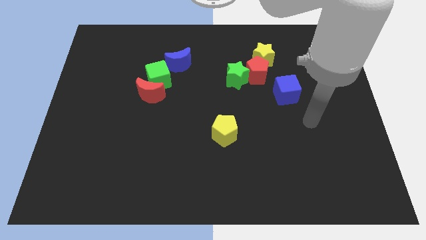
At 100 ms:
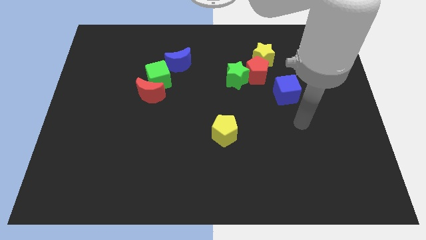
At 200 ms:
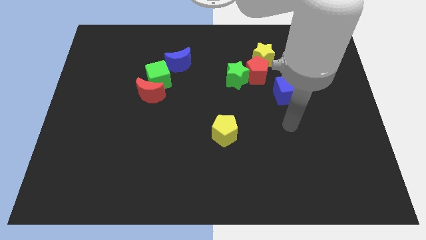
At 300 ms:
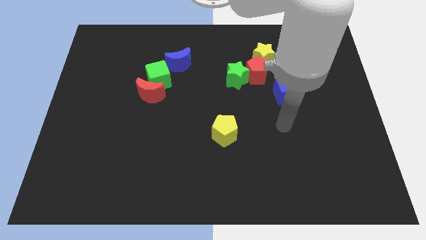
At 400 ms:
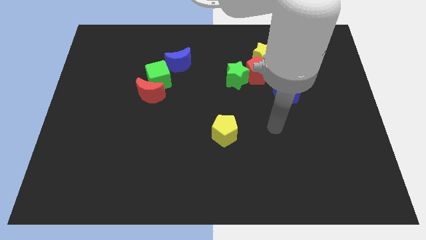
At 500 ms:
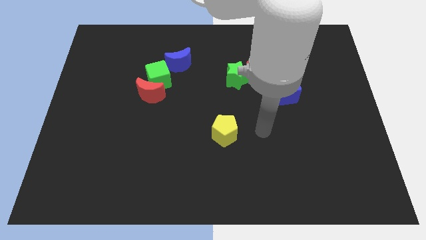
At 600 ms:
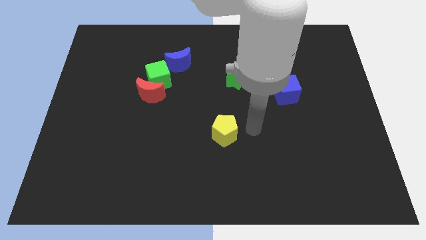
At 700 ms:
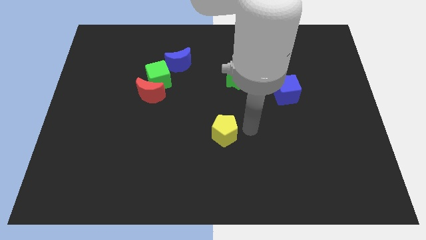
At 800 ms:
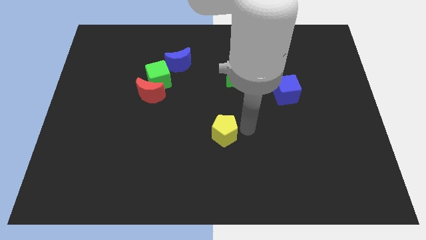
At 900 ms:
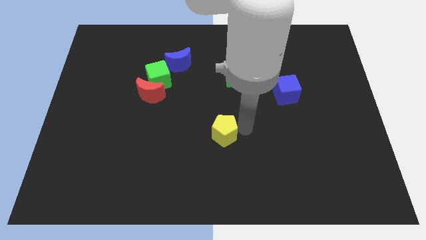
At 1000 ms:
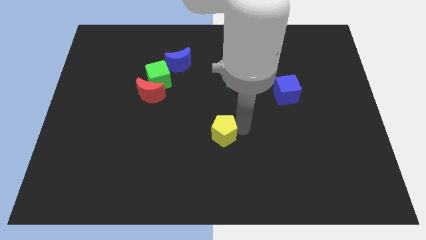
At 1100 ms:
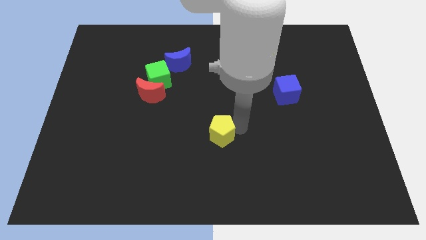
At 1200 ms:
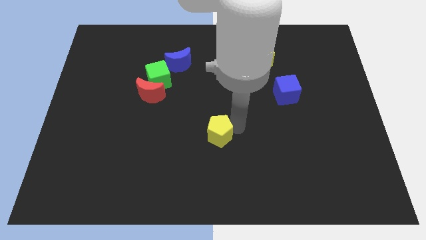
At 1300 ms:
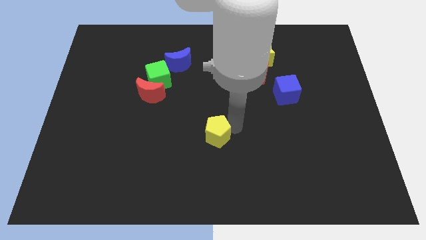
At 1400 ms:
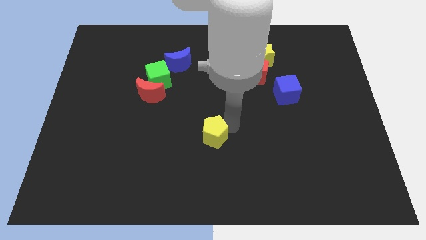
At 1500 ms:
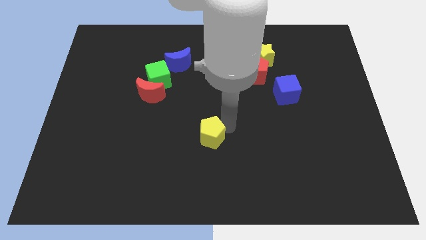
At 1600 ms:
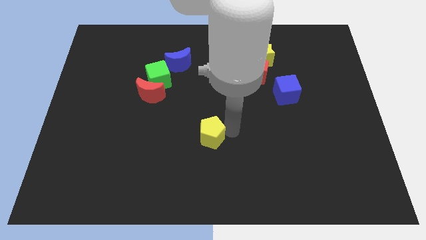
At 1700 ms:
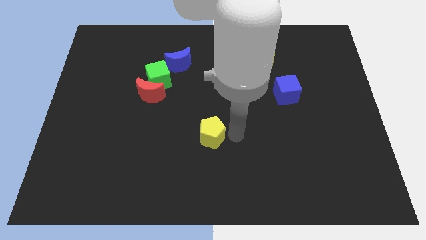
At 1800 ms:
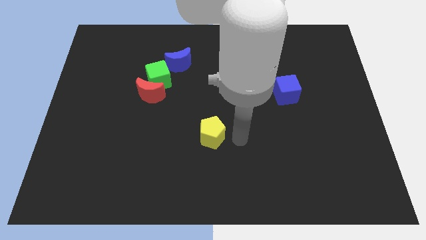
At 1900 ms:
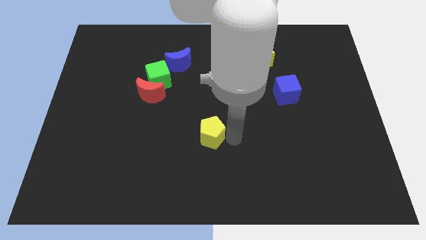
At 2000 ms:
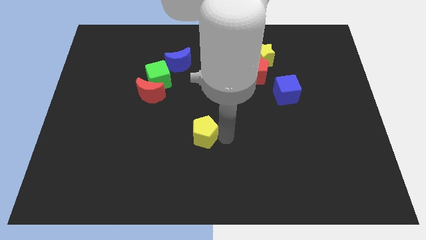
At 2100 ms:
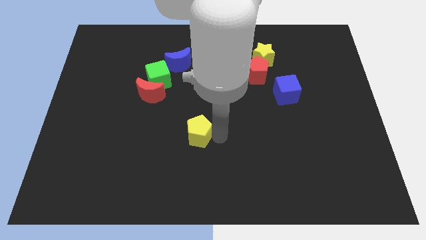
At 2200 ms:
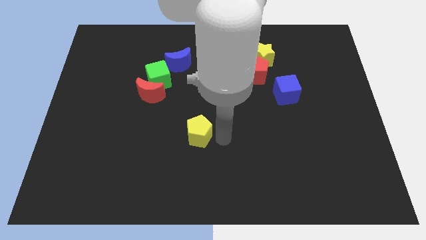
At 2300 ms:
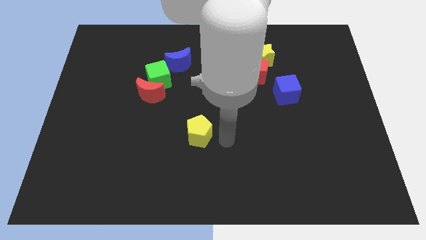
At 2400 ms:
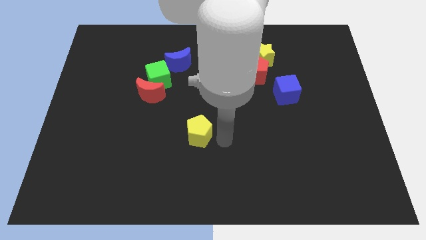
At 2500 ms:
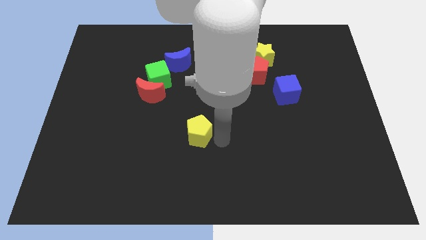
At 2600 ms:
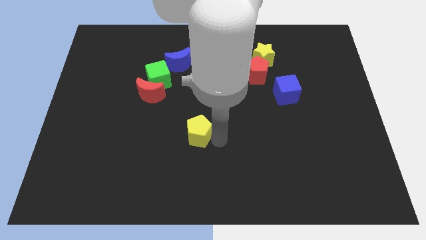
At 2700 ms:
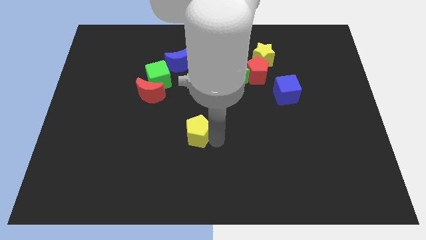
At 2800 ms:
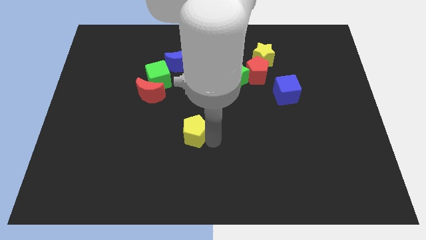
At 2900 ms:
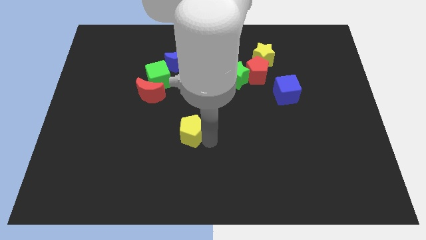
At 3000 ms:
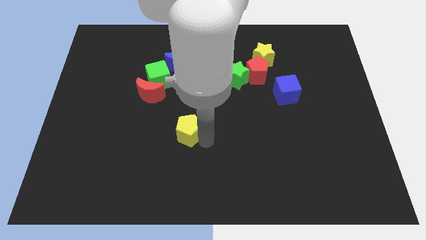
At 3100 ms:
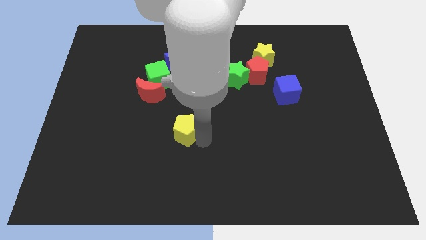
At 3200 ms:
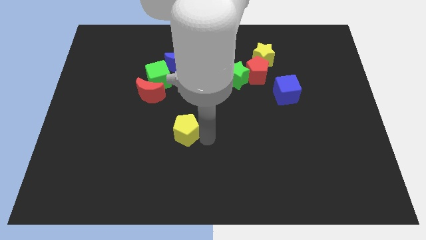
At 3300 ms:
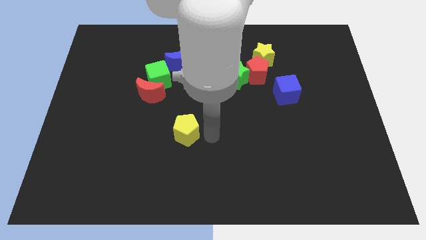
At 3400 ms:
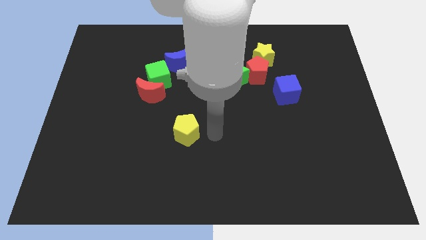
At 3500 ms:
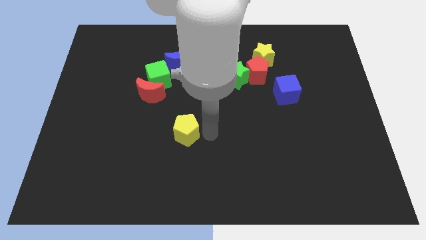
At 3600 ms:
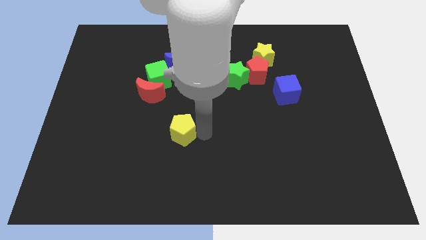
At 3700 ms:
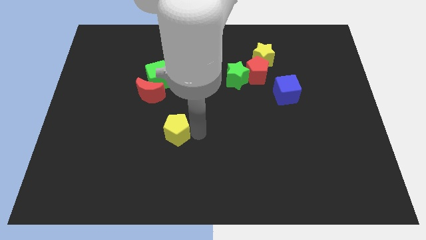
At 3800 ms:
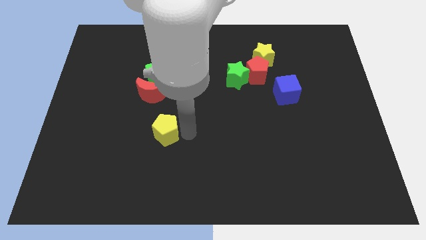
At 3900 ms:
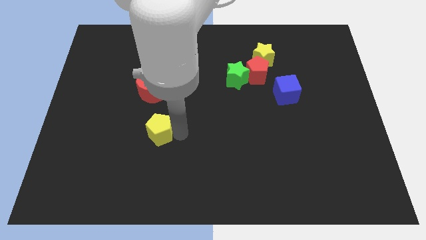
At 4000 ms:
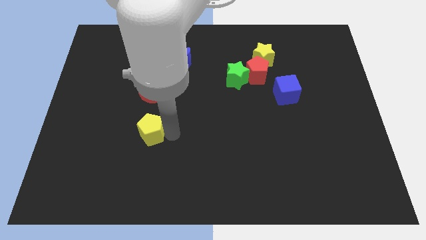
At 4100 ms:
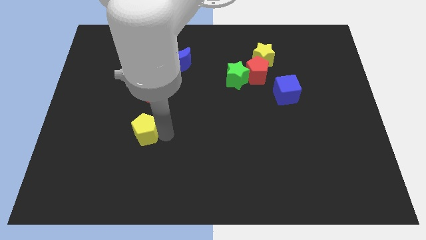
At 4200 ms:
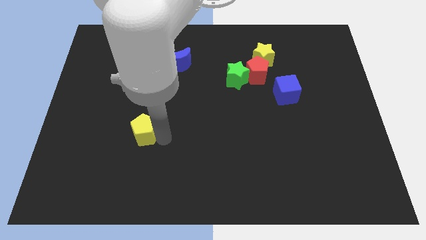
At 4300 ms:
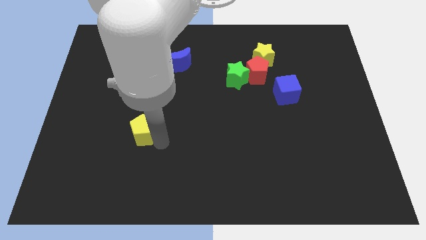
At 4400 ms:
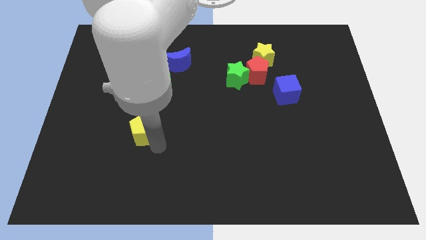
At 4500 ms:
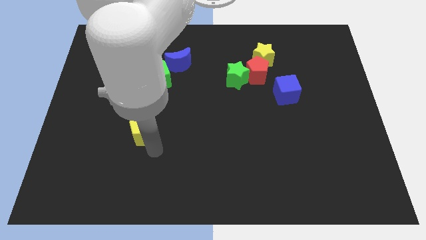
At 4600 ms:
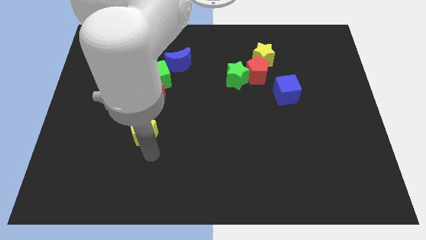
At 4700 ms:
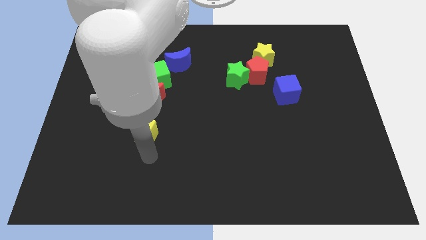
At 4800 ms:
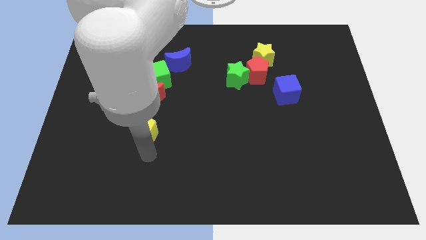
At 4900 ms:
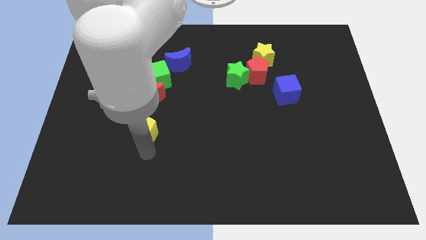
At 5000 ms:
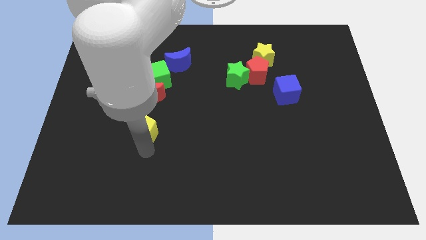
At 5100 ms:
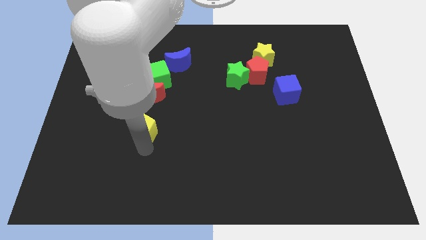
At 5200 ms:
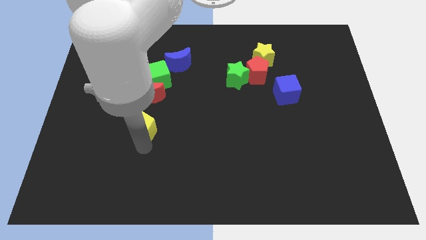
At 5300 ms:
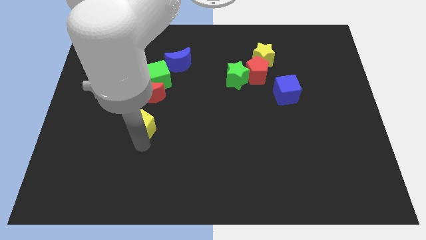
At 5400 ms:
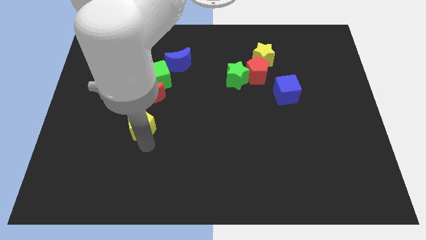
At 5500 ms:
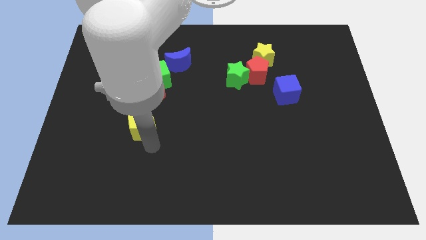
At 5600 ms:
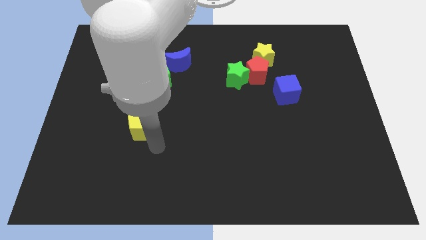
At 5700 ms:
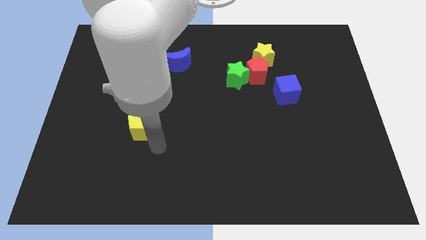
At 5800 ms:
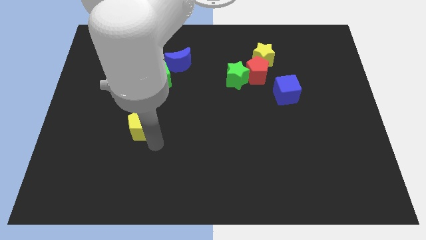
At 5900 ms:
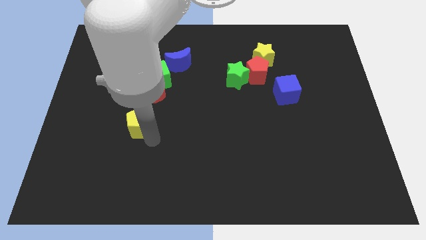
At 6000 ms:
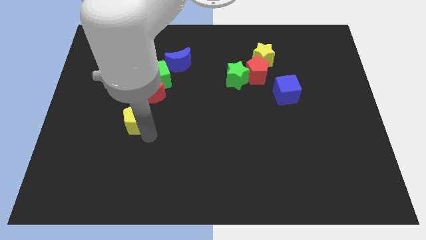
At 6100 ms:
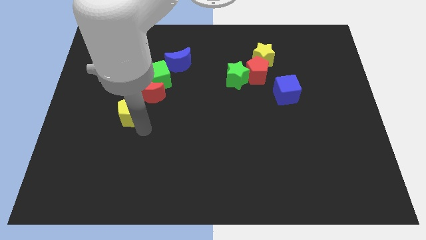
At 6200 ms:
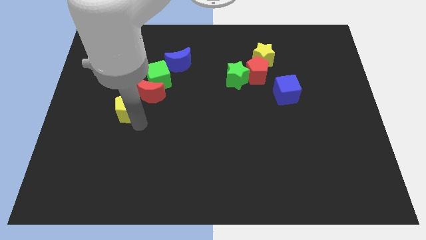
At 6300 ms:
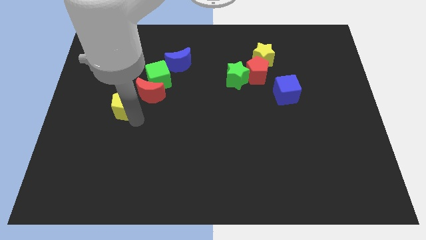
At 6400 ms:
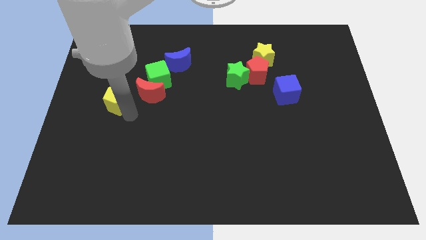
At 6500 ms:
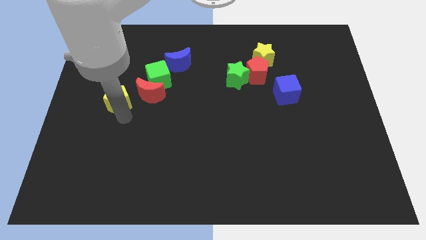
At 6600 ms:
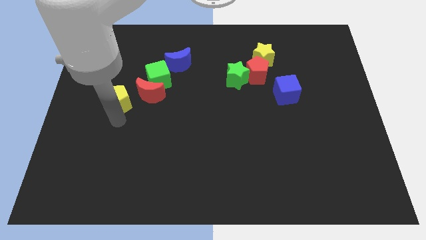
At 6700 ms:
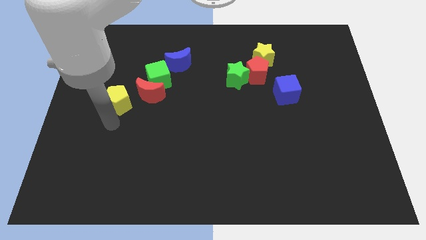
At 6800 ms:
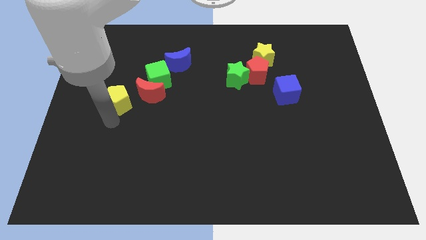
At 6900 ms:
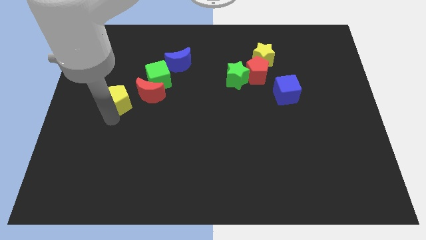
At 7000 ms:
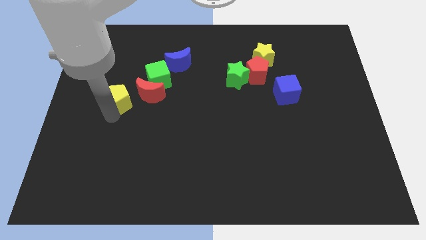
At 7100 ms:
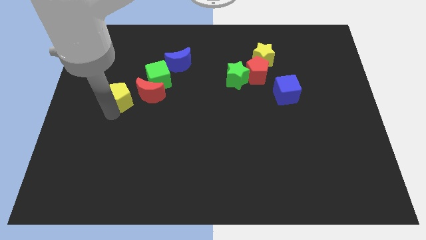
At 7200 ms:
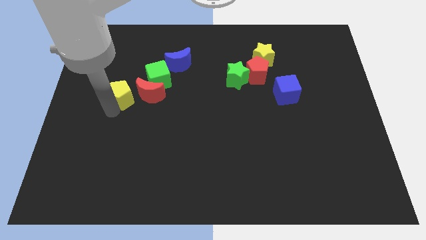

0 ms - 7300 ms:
move the yellow pentagon upwards and then to the left

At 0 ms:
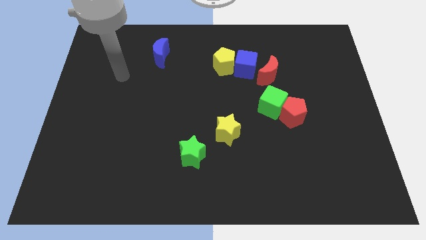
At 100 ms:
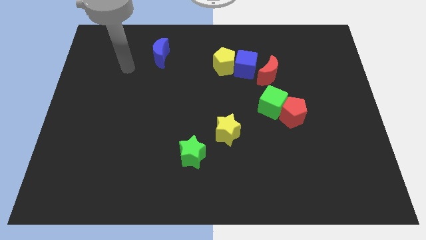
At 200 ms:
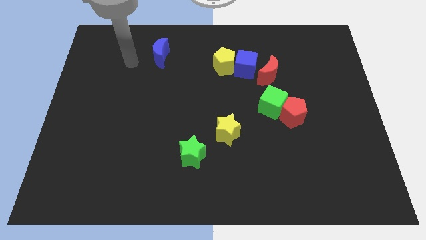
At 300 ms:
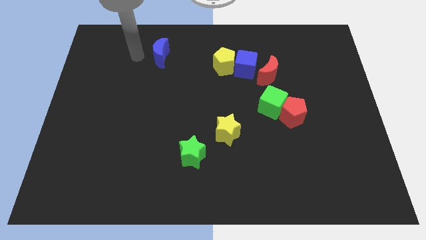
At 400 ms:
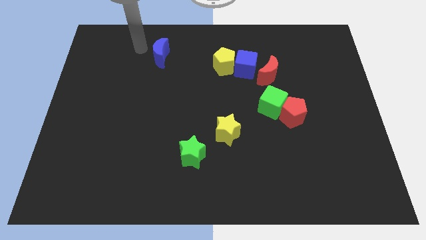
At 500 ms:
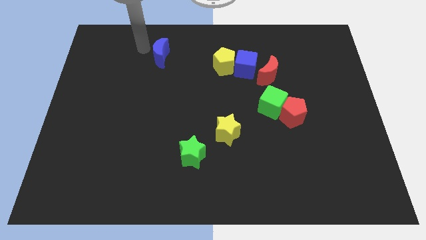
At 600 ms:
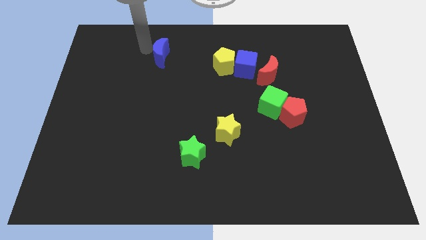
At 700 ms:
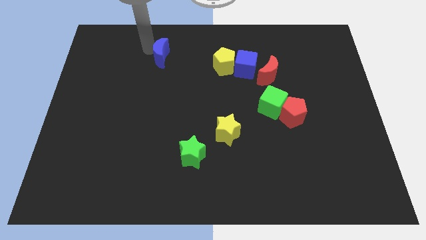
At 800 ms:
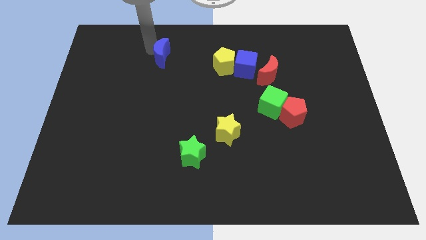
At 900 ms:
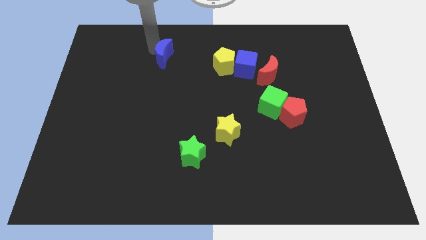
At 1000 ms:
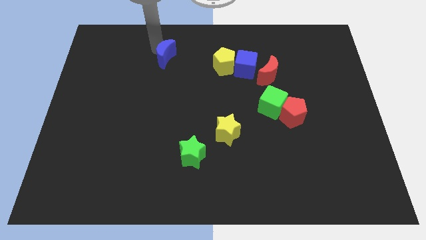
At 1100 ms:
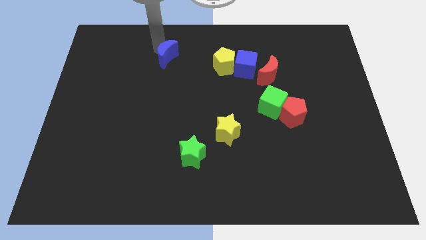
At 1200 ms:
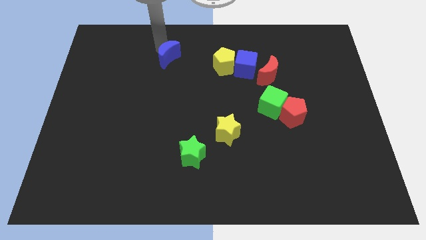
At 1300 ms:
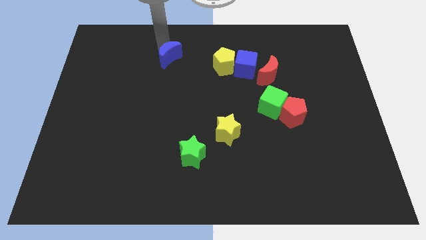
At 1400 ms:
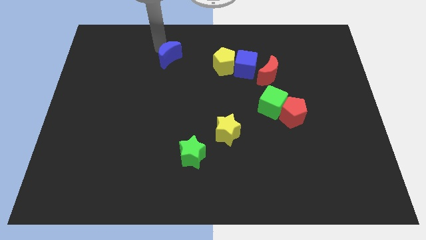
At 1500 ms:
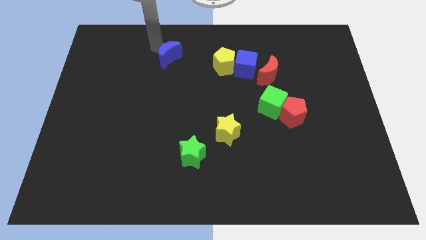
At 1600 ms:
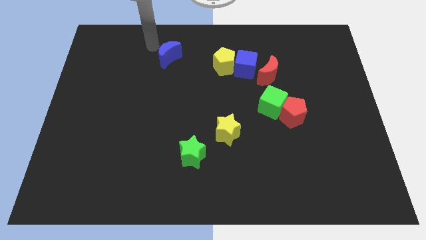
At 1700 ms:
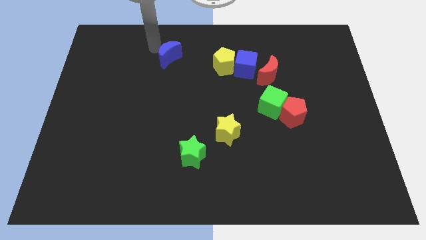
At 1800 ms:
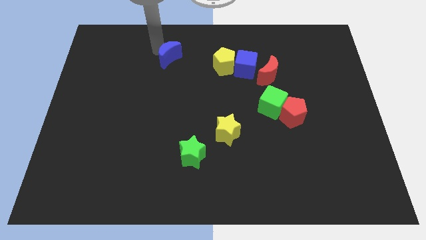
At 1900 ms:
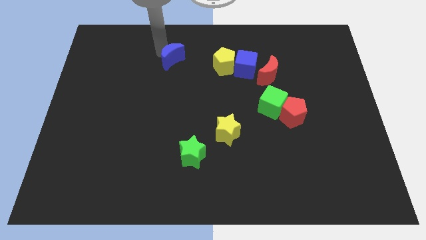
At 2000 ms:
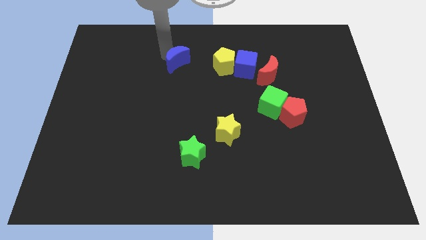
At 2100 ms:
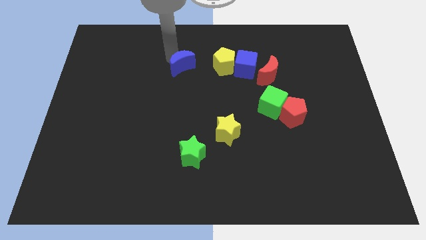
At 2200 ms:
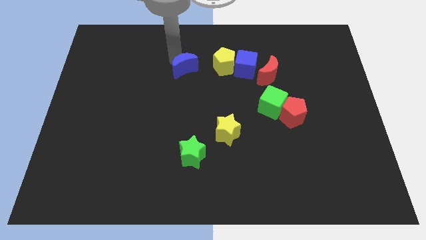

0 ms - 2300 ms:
slightly slide the blue moon downwards and then right
